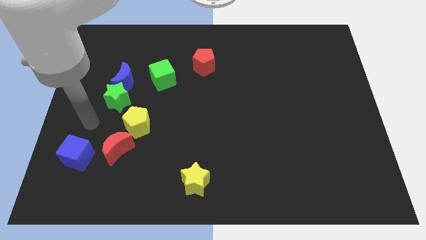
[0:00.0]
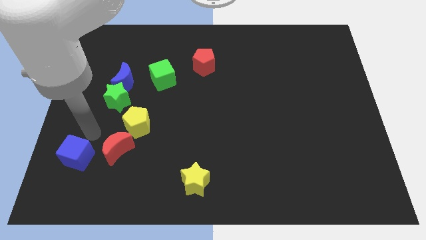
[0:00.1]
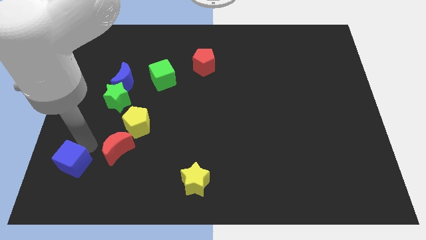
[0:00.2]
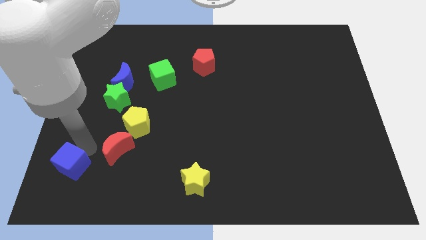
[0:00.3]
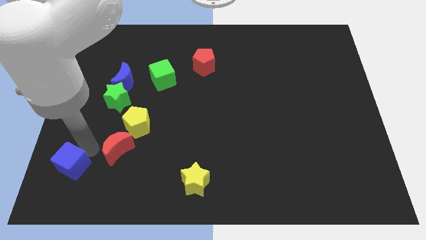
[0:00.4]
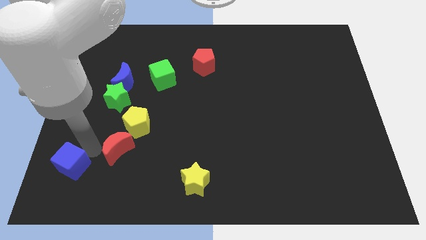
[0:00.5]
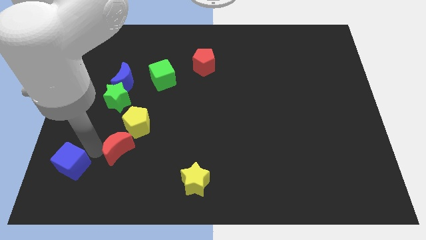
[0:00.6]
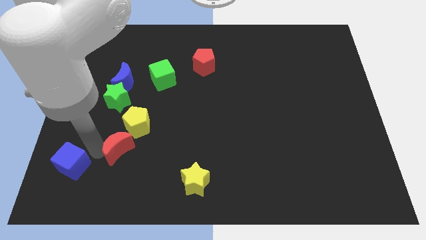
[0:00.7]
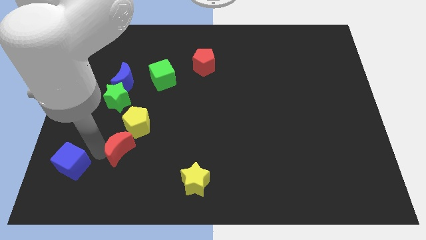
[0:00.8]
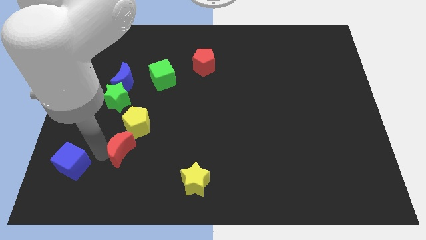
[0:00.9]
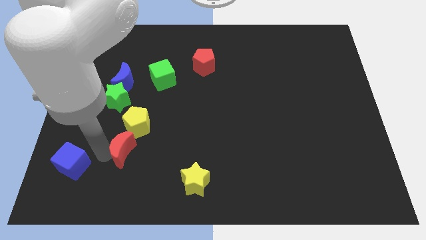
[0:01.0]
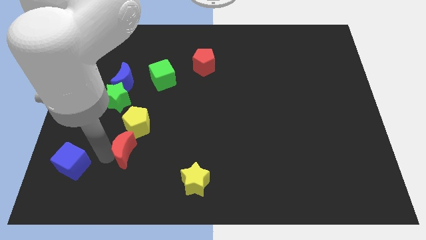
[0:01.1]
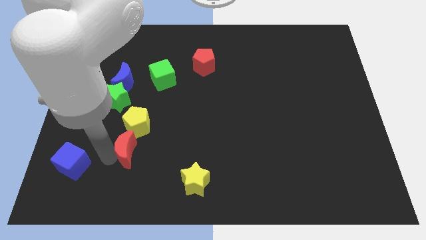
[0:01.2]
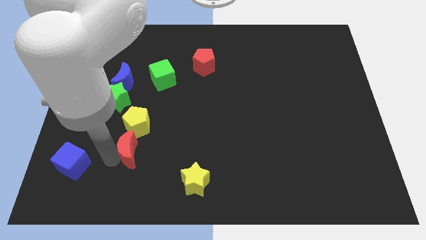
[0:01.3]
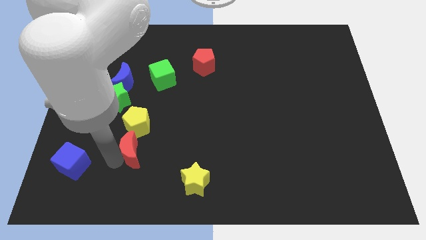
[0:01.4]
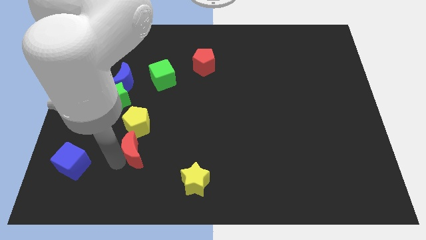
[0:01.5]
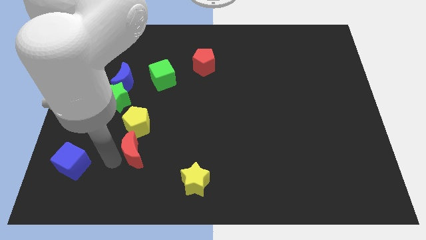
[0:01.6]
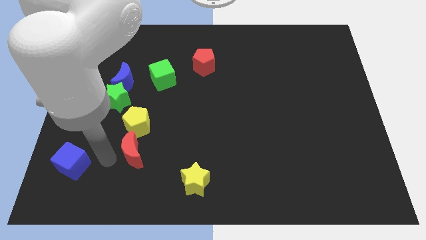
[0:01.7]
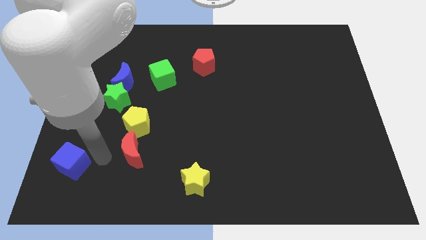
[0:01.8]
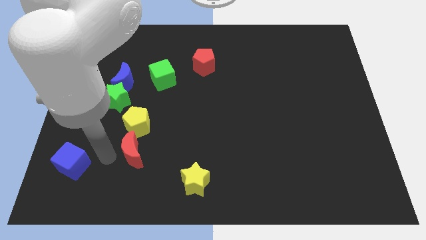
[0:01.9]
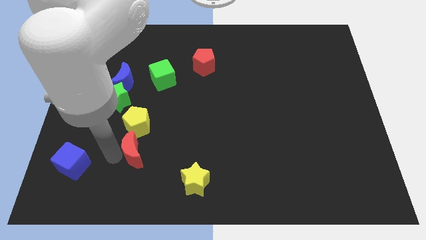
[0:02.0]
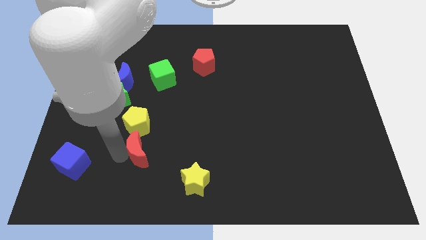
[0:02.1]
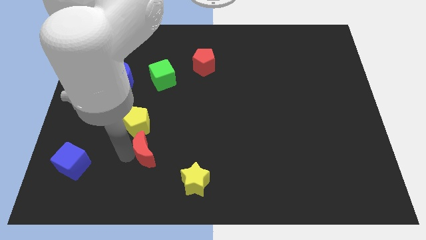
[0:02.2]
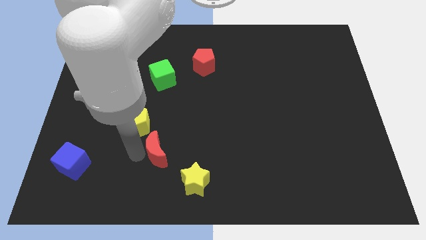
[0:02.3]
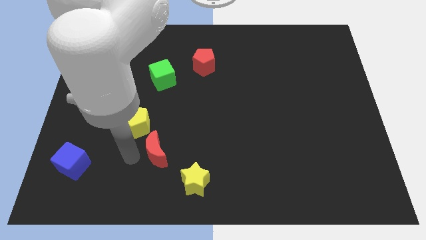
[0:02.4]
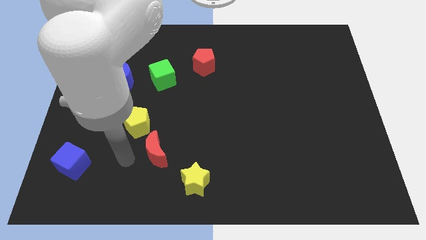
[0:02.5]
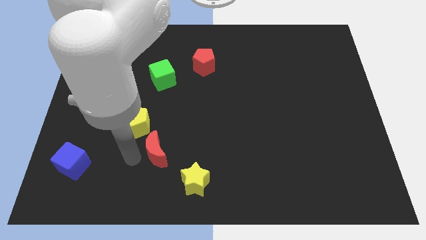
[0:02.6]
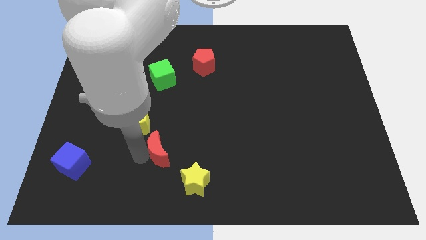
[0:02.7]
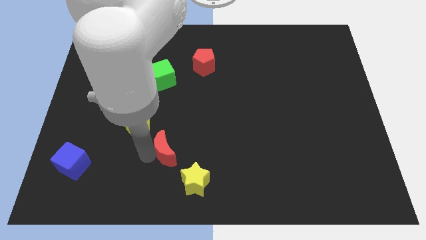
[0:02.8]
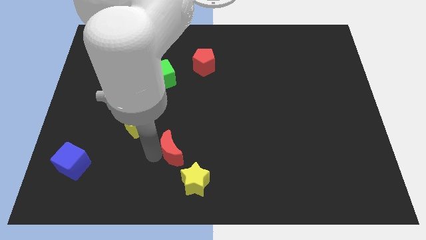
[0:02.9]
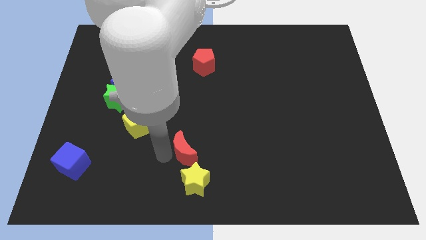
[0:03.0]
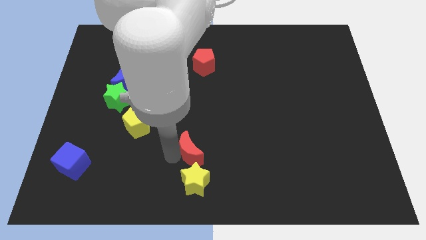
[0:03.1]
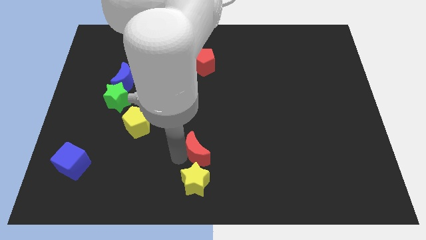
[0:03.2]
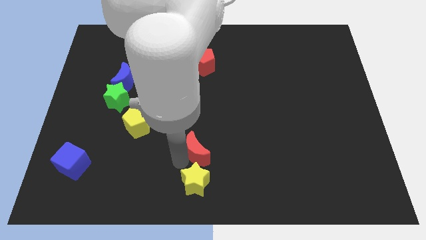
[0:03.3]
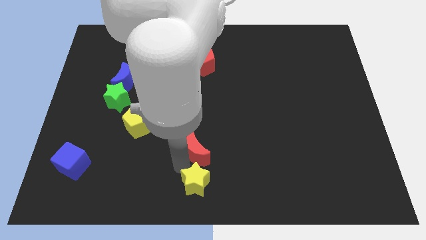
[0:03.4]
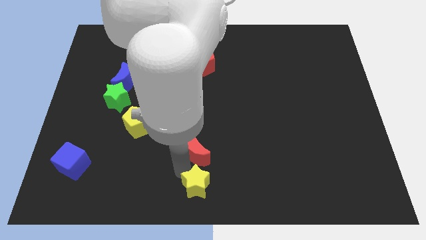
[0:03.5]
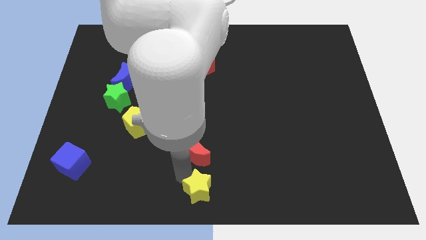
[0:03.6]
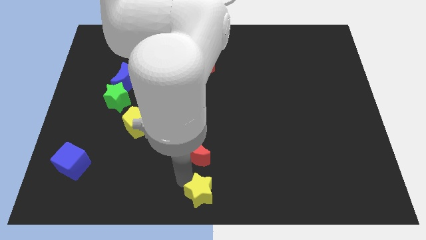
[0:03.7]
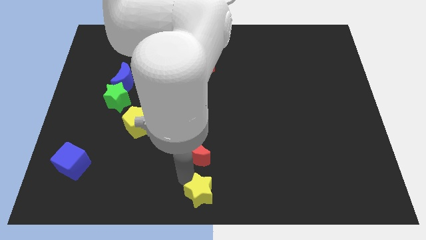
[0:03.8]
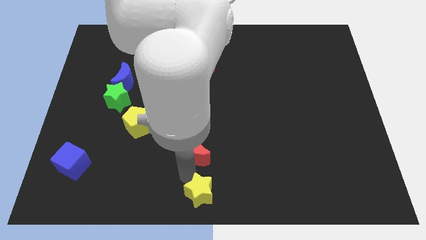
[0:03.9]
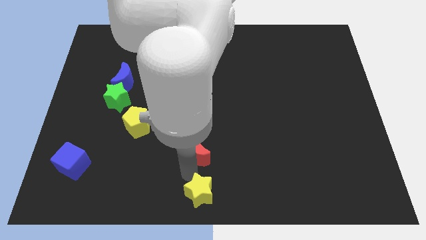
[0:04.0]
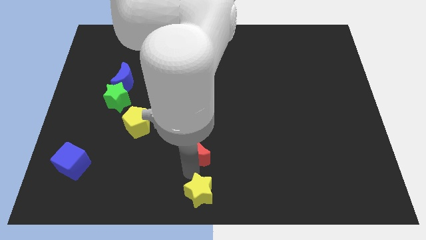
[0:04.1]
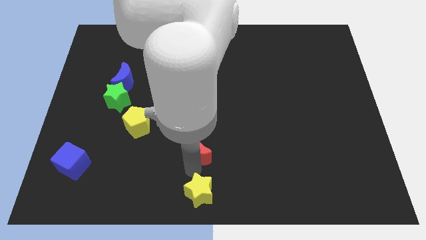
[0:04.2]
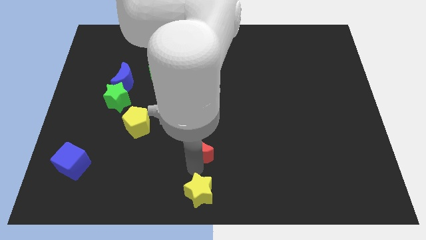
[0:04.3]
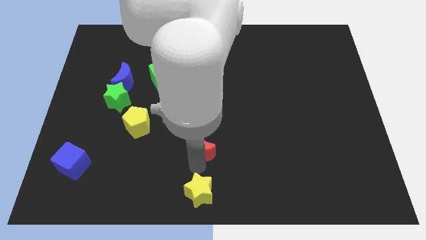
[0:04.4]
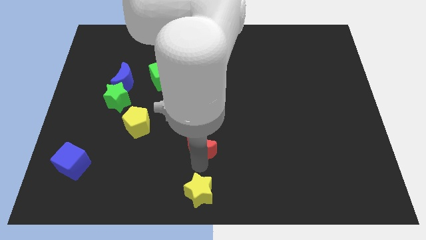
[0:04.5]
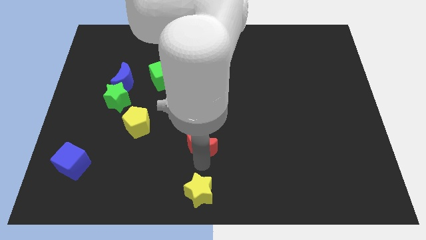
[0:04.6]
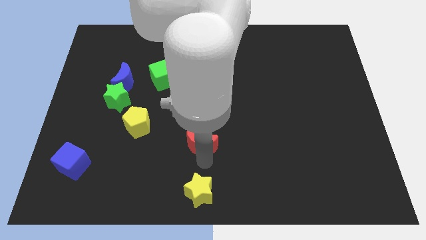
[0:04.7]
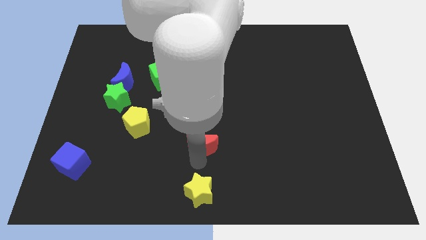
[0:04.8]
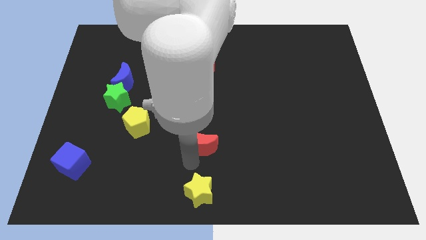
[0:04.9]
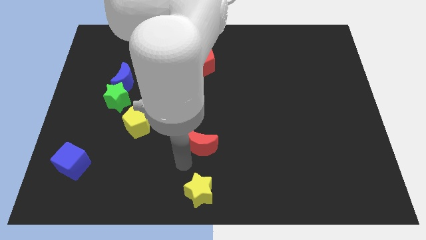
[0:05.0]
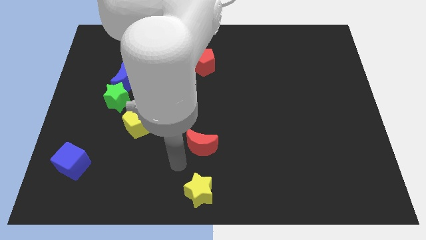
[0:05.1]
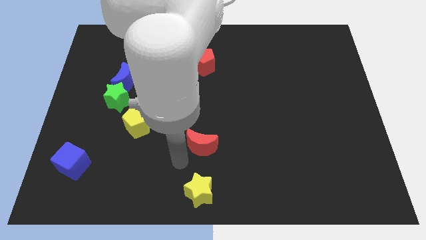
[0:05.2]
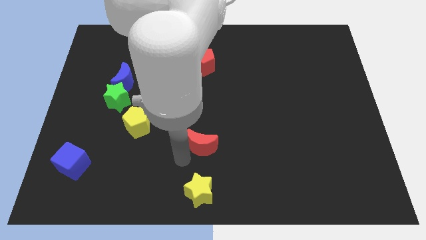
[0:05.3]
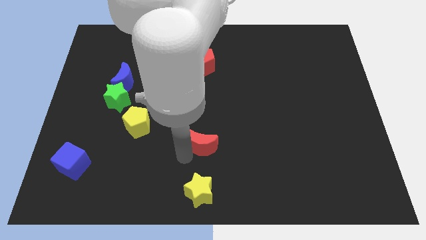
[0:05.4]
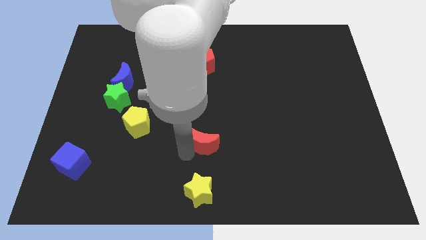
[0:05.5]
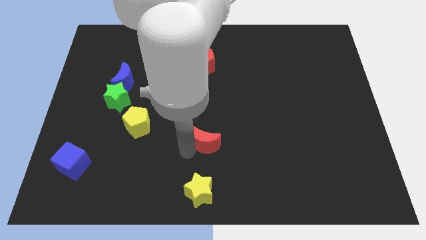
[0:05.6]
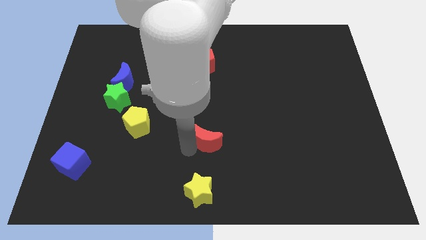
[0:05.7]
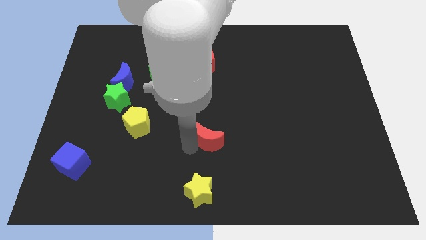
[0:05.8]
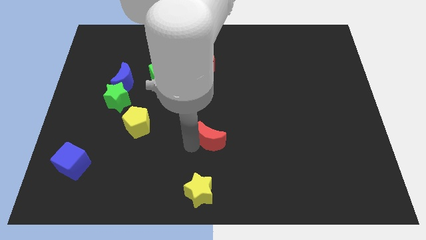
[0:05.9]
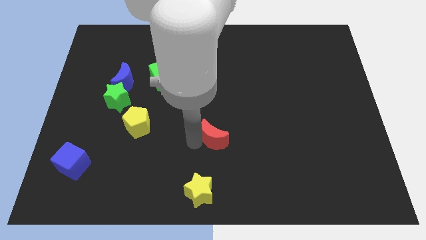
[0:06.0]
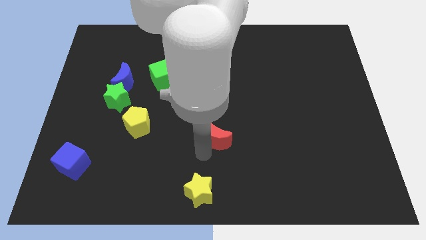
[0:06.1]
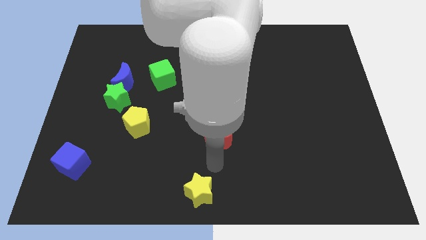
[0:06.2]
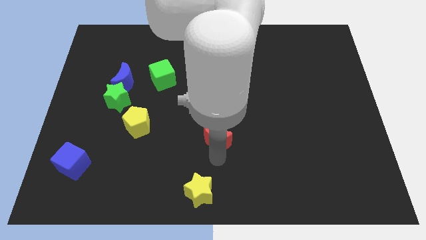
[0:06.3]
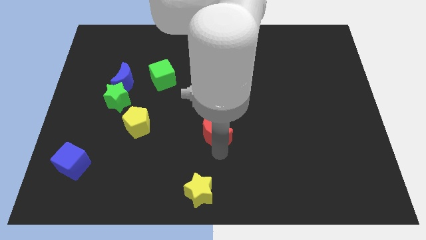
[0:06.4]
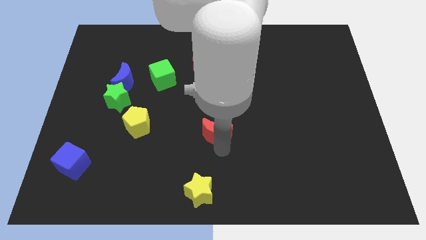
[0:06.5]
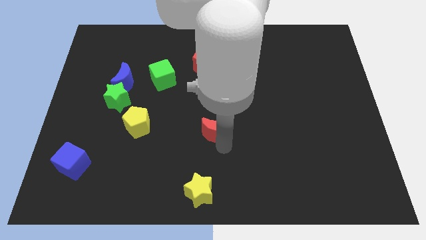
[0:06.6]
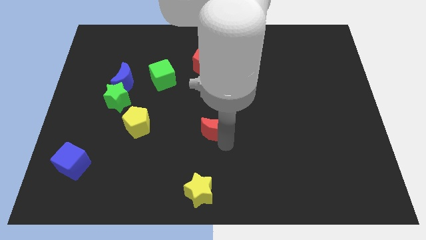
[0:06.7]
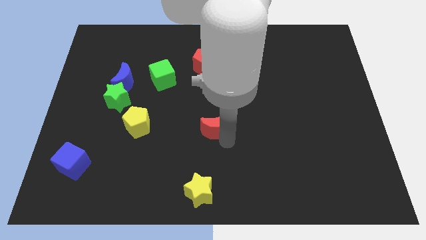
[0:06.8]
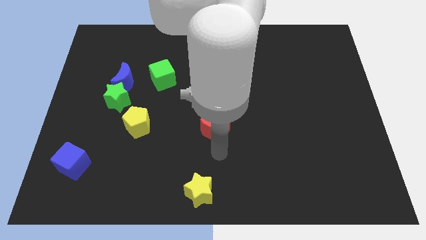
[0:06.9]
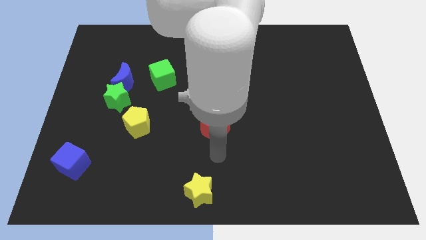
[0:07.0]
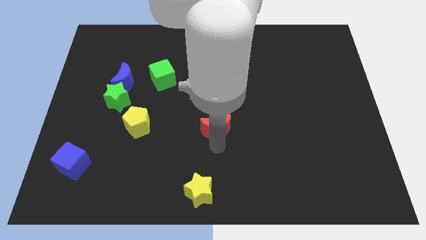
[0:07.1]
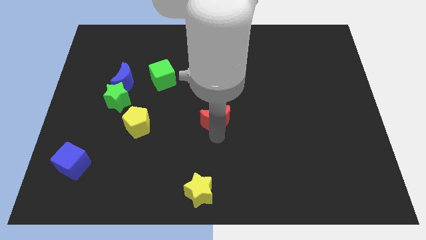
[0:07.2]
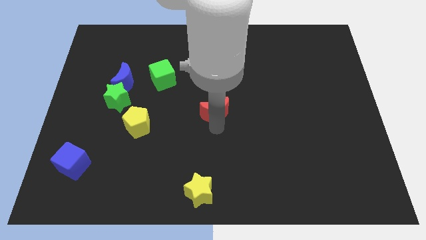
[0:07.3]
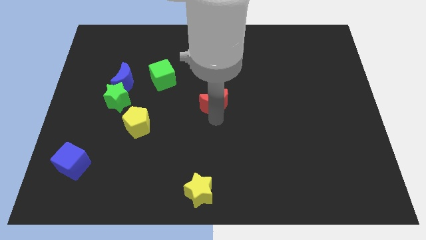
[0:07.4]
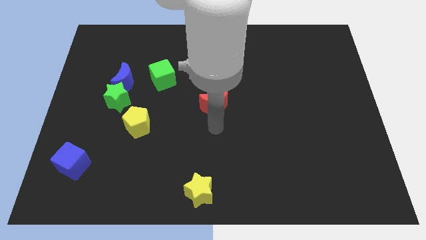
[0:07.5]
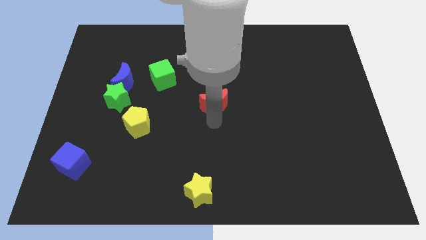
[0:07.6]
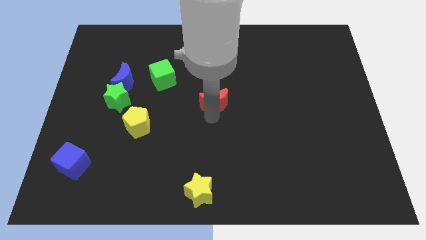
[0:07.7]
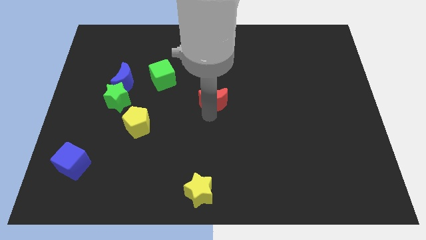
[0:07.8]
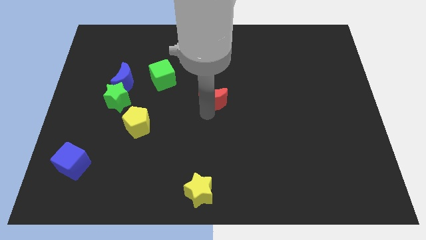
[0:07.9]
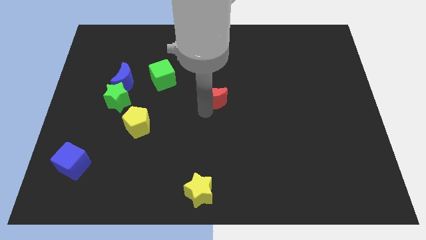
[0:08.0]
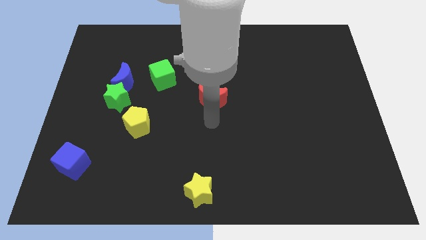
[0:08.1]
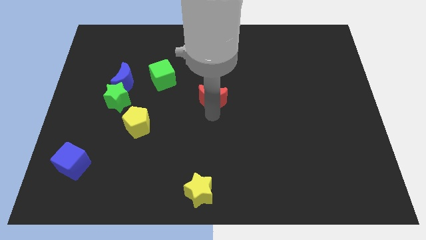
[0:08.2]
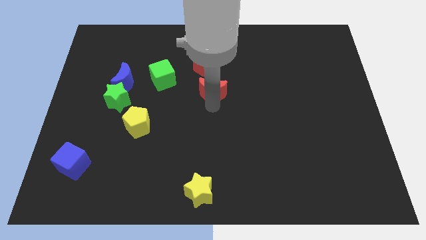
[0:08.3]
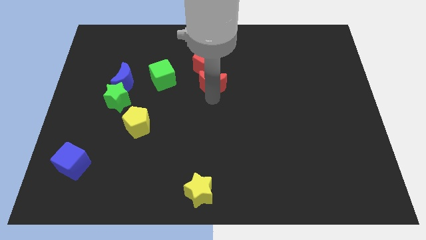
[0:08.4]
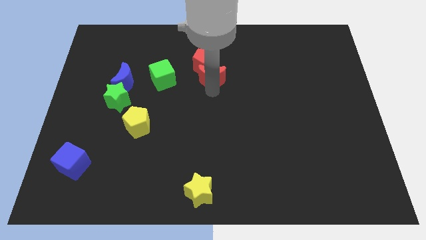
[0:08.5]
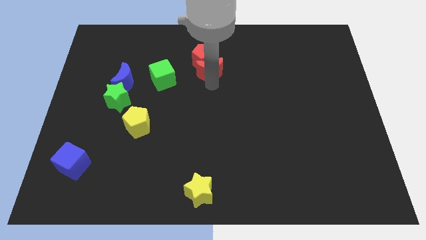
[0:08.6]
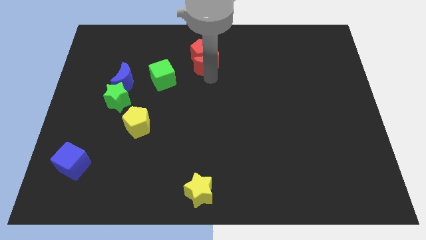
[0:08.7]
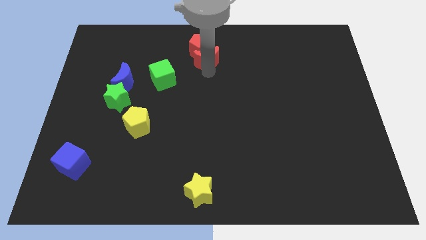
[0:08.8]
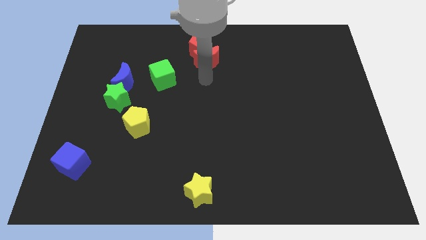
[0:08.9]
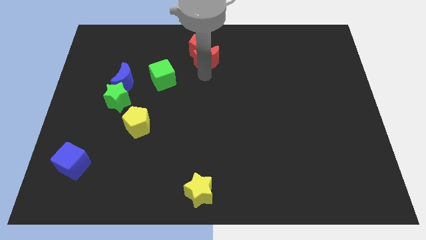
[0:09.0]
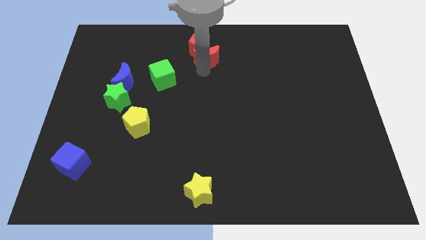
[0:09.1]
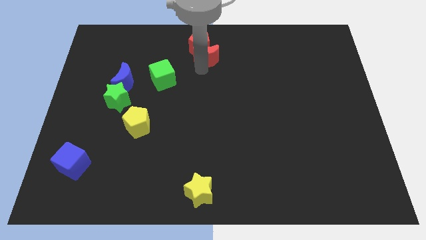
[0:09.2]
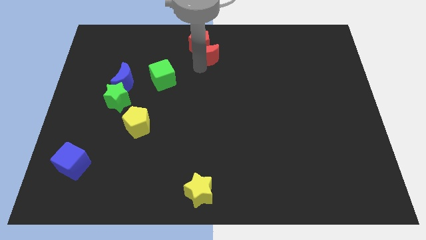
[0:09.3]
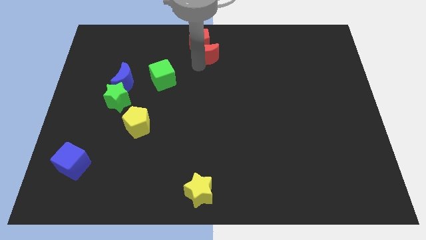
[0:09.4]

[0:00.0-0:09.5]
slide the red moon to the towards your base
